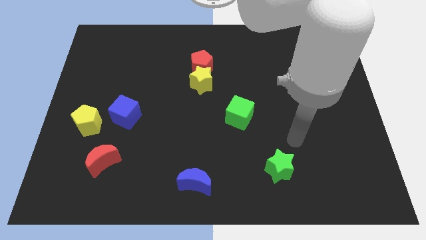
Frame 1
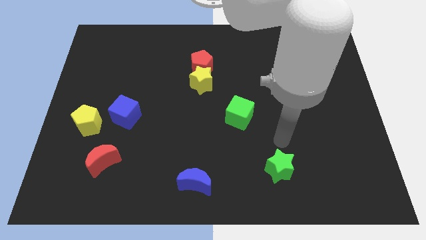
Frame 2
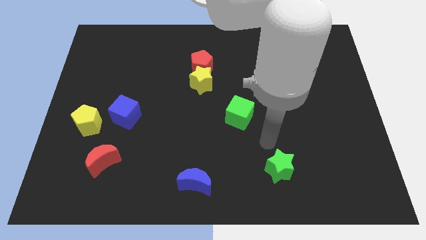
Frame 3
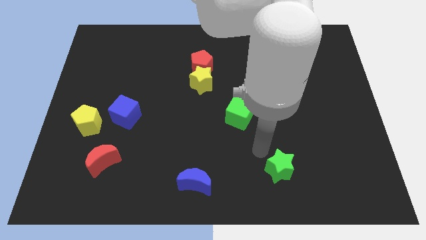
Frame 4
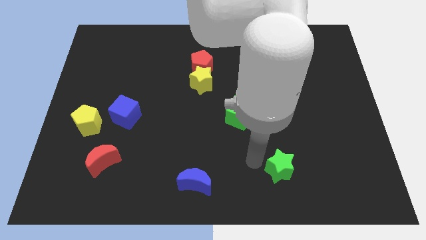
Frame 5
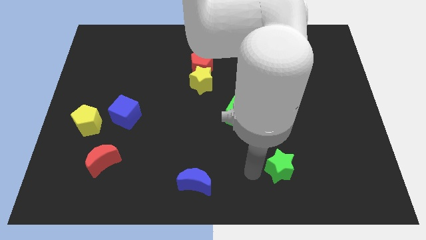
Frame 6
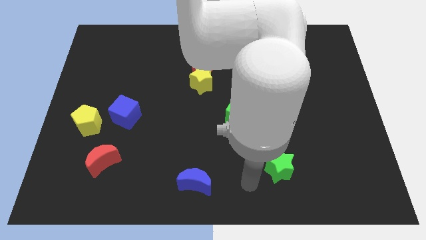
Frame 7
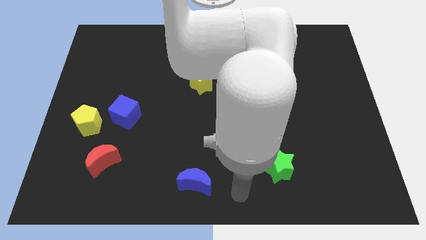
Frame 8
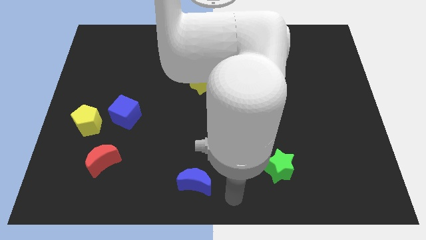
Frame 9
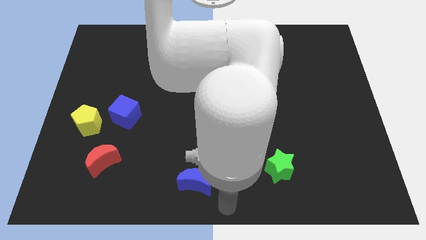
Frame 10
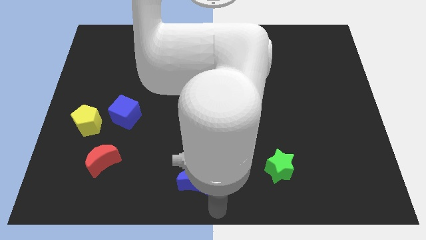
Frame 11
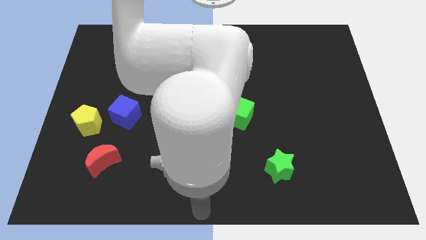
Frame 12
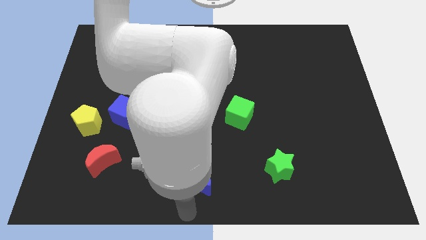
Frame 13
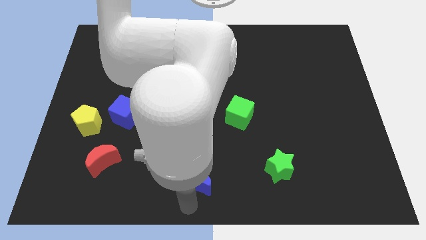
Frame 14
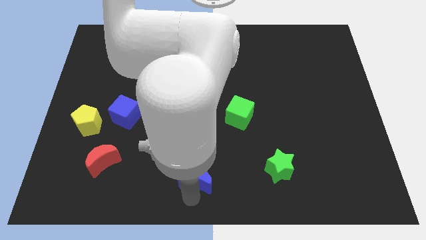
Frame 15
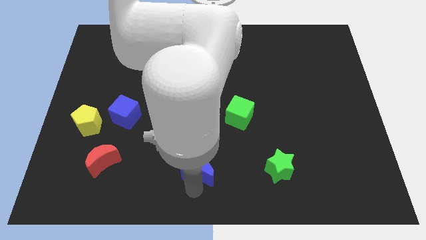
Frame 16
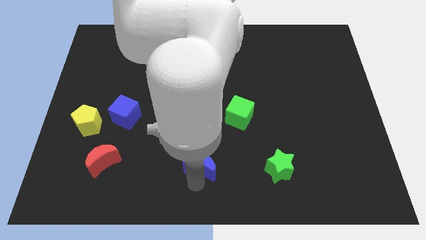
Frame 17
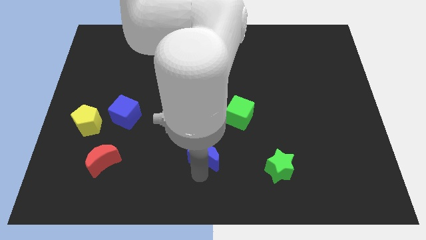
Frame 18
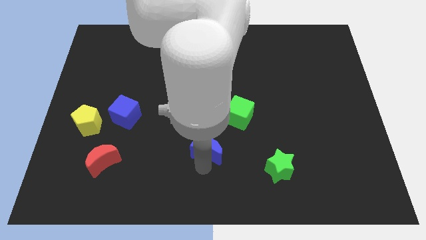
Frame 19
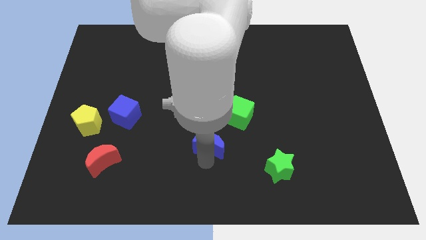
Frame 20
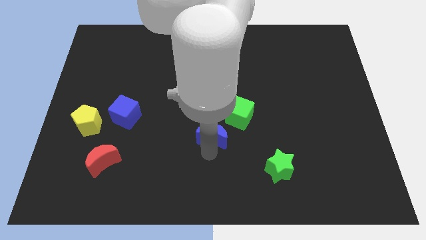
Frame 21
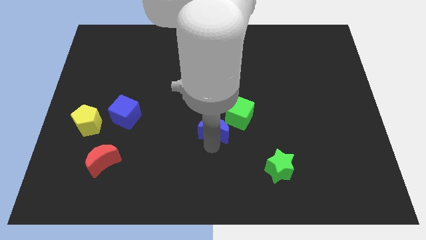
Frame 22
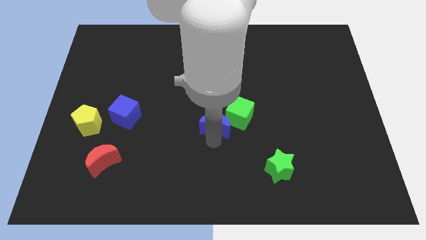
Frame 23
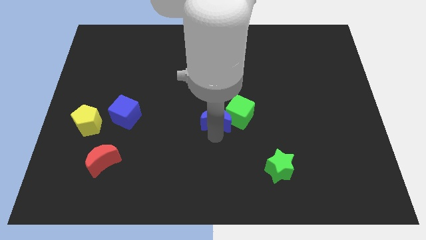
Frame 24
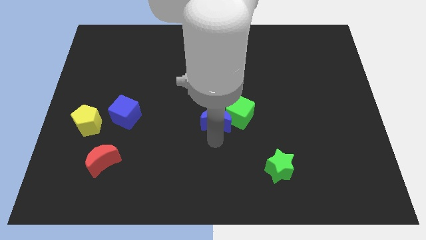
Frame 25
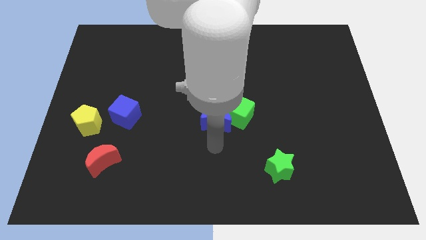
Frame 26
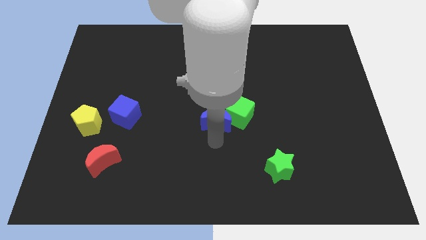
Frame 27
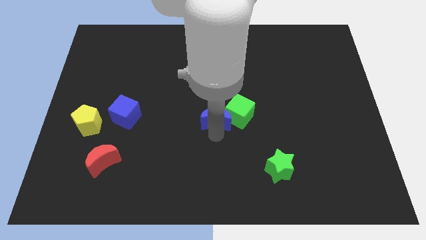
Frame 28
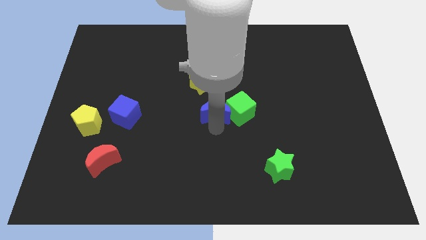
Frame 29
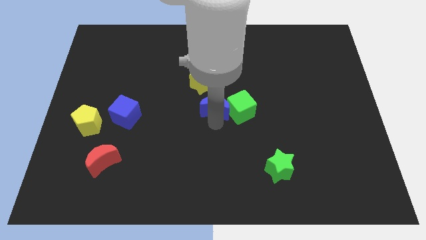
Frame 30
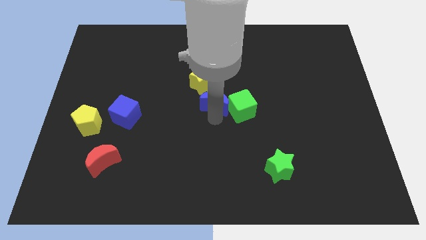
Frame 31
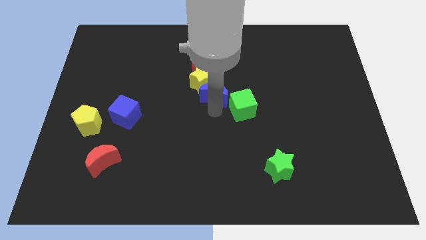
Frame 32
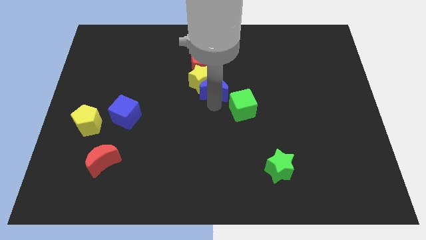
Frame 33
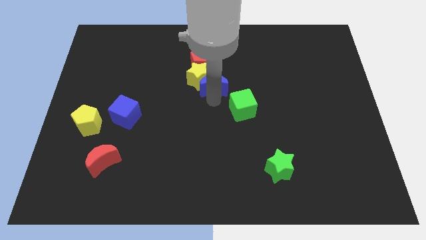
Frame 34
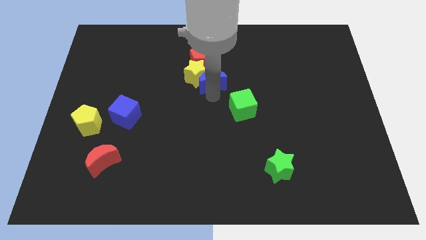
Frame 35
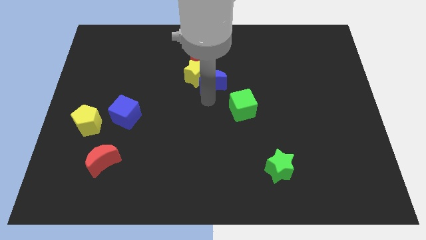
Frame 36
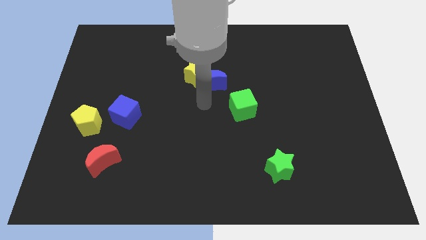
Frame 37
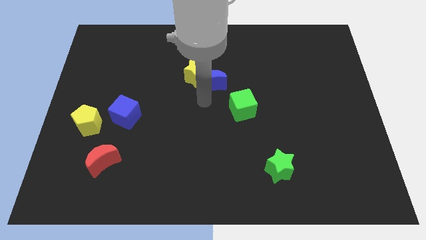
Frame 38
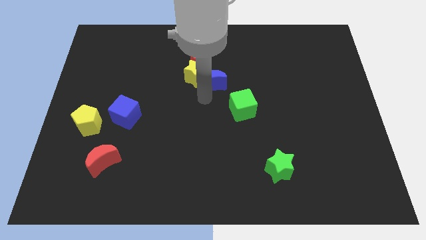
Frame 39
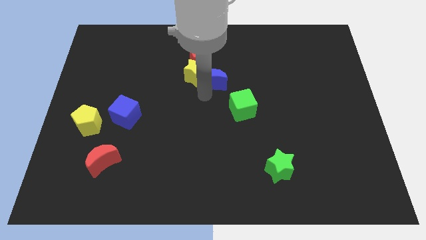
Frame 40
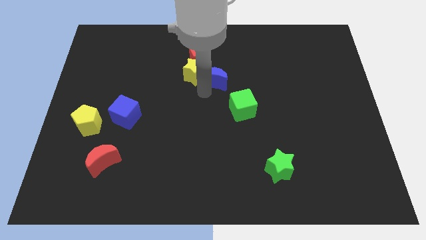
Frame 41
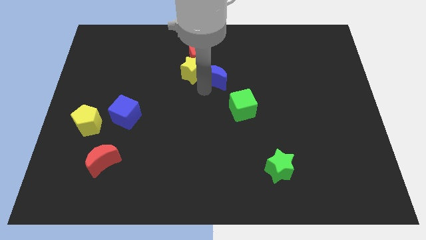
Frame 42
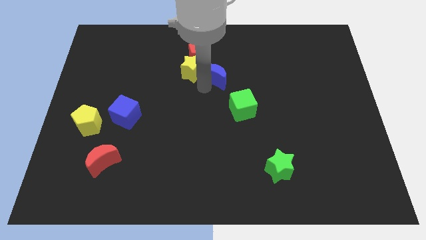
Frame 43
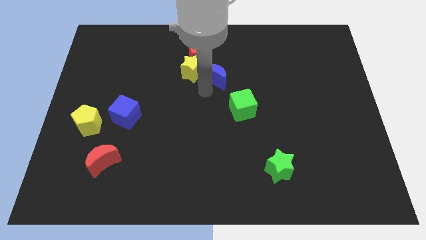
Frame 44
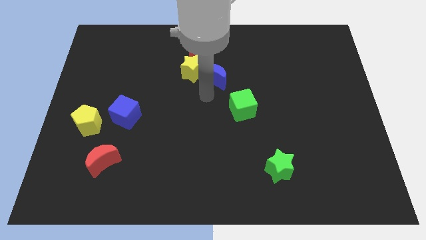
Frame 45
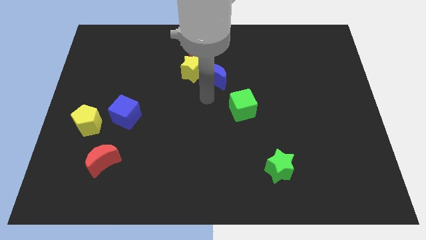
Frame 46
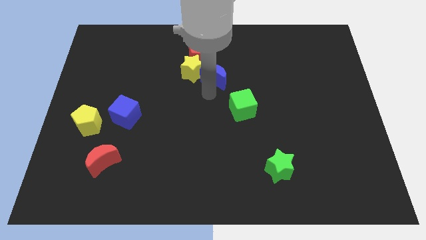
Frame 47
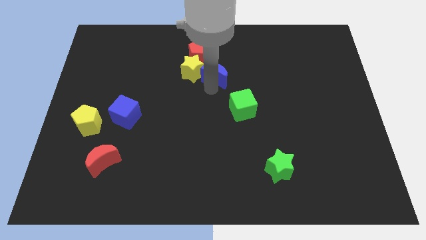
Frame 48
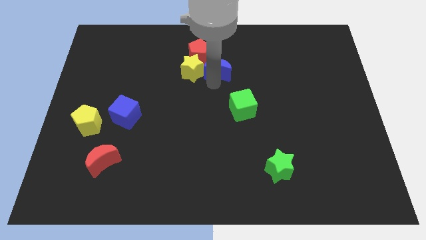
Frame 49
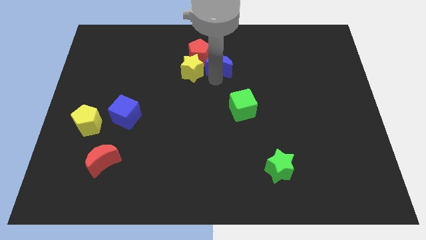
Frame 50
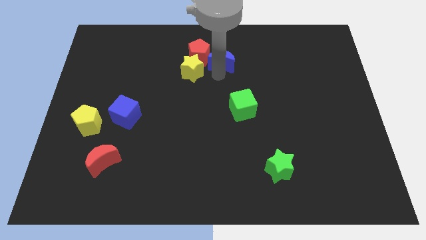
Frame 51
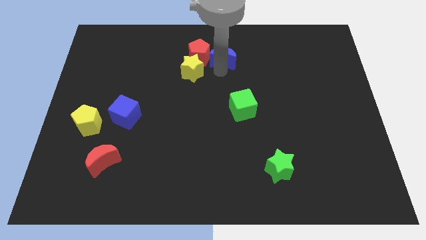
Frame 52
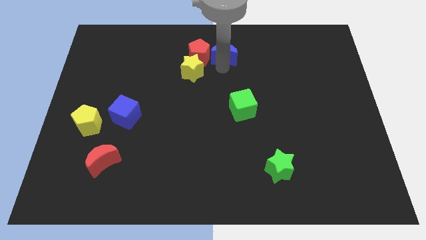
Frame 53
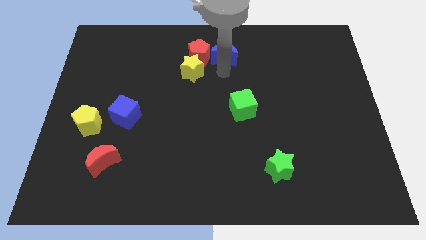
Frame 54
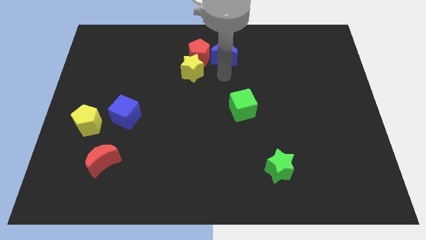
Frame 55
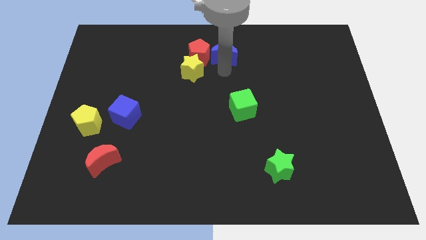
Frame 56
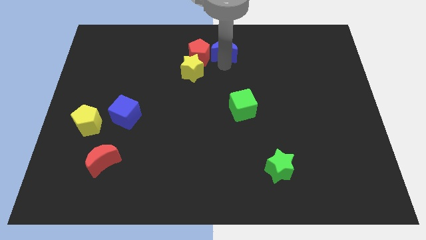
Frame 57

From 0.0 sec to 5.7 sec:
put the blue moon to the top side
